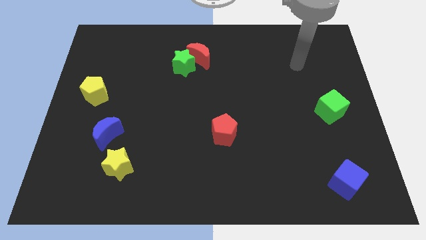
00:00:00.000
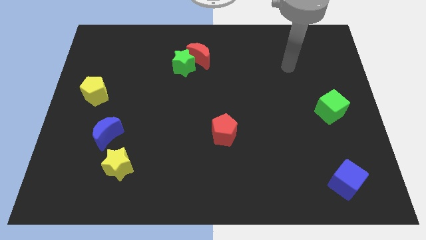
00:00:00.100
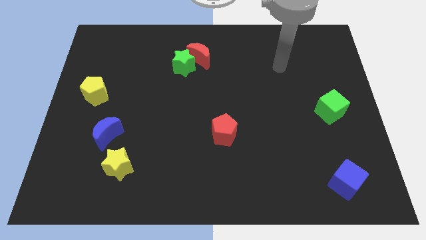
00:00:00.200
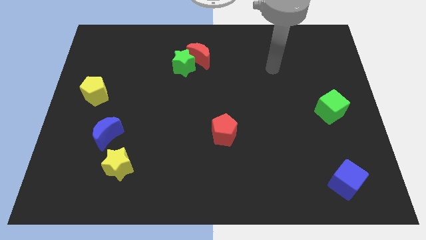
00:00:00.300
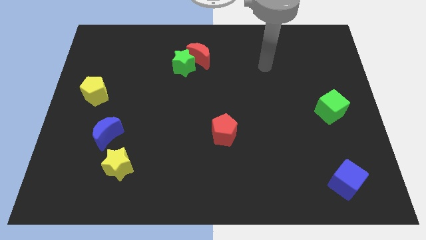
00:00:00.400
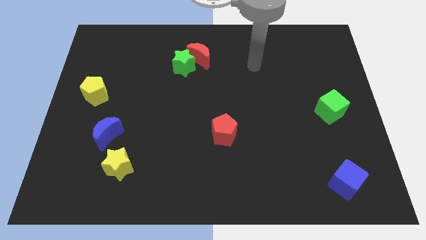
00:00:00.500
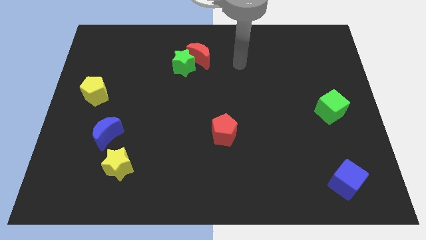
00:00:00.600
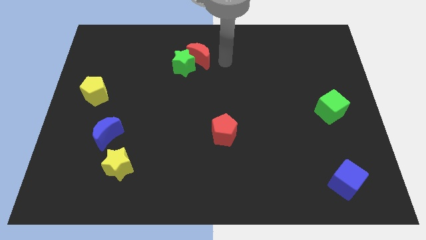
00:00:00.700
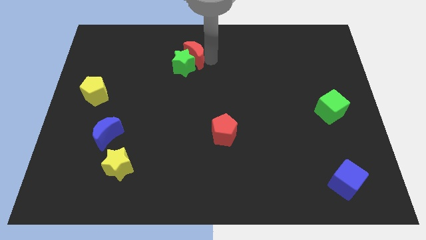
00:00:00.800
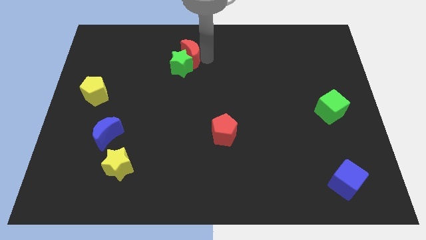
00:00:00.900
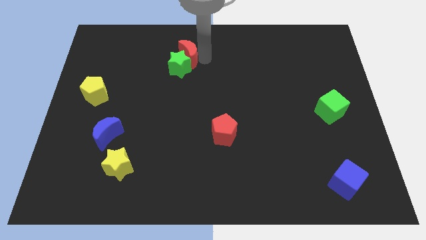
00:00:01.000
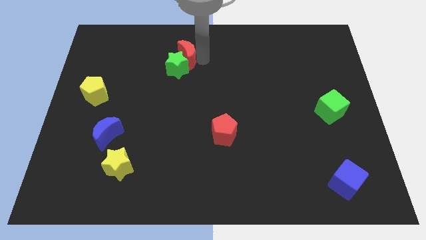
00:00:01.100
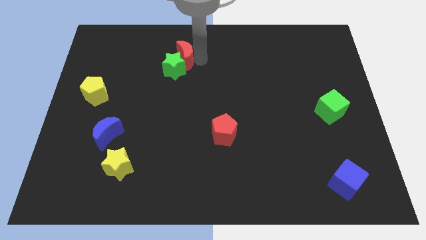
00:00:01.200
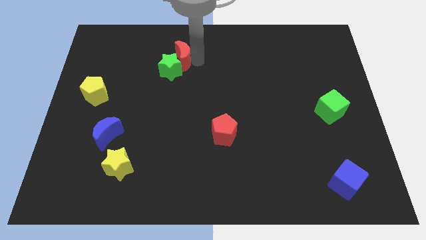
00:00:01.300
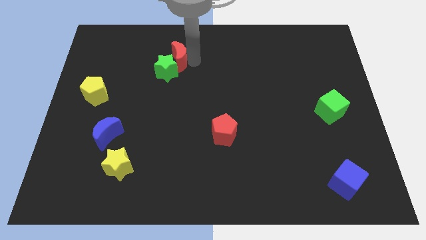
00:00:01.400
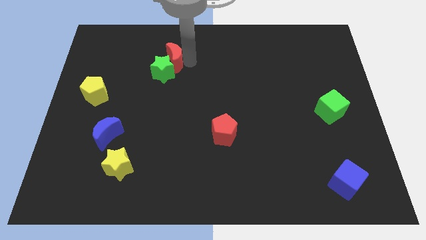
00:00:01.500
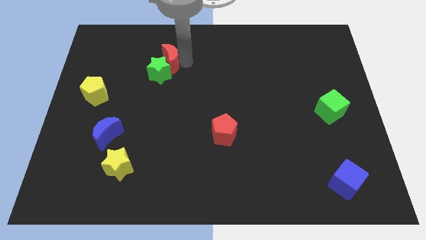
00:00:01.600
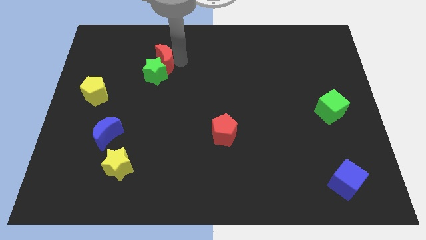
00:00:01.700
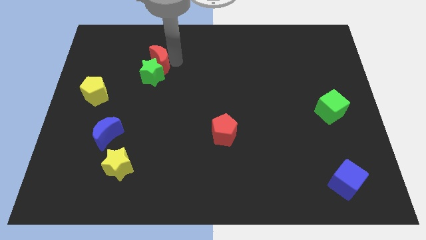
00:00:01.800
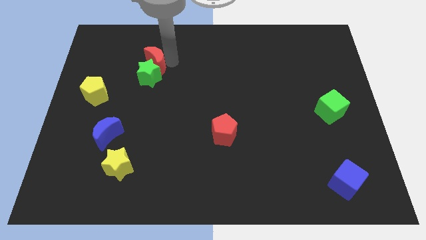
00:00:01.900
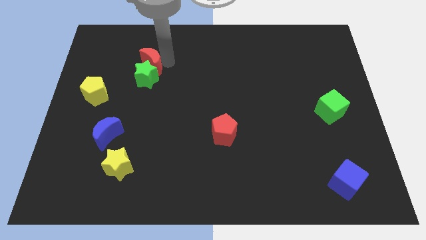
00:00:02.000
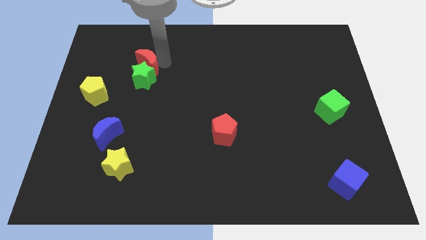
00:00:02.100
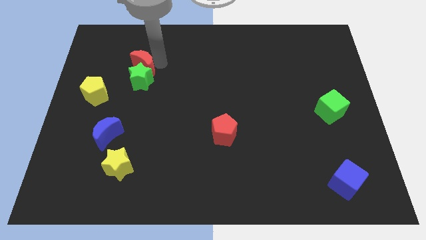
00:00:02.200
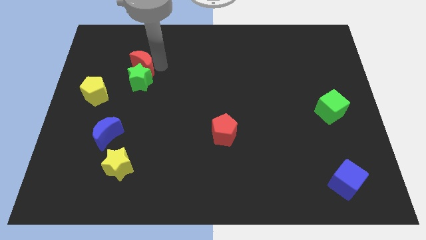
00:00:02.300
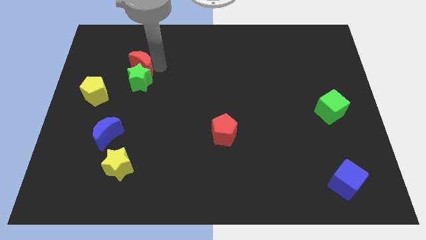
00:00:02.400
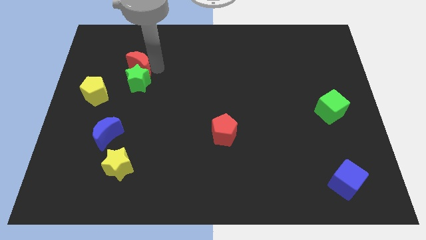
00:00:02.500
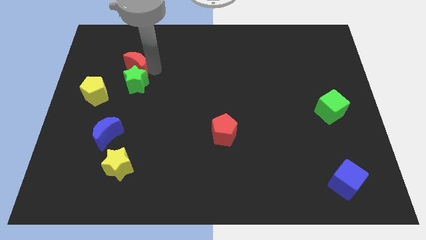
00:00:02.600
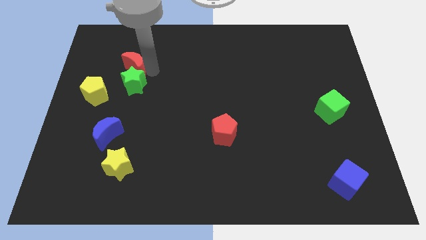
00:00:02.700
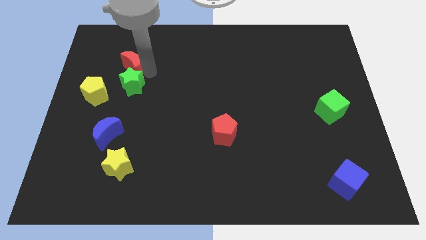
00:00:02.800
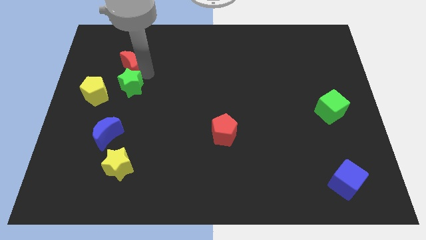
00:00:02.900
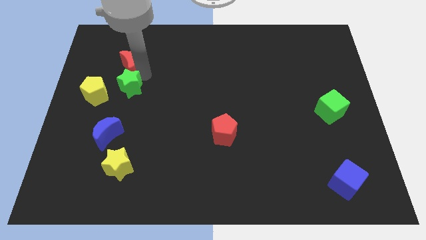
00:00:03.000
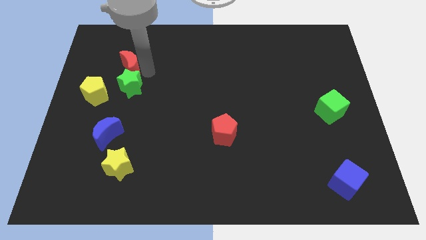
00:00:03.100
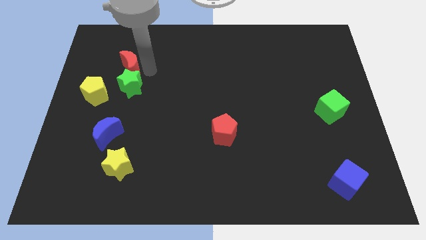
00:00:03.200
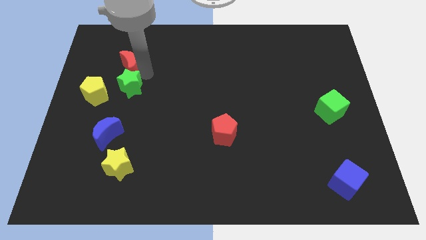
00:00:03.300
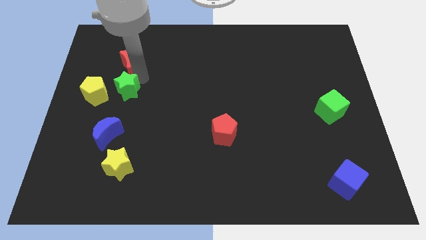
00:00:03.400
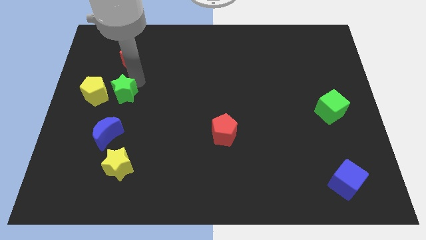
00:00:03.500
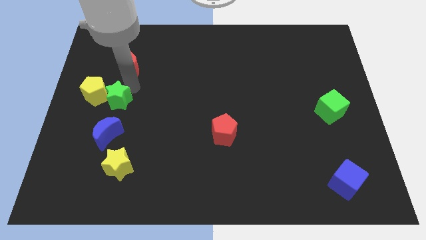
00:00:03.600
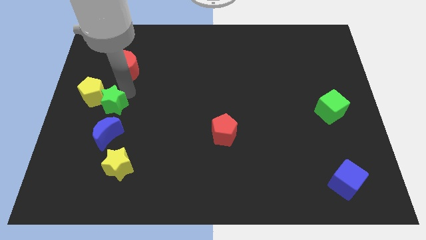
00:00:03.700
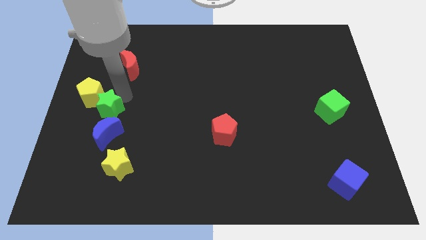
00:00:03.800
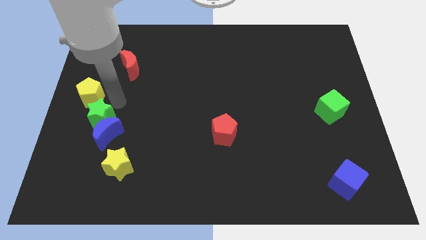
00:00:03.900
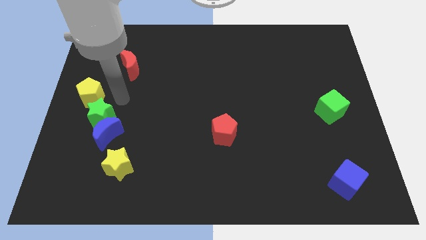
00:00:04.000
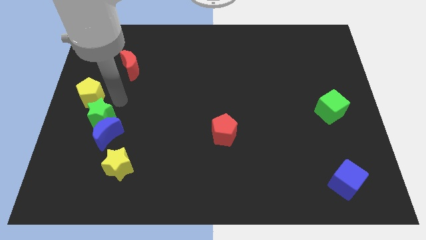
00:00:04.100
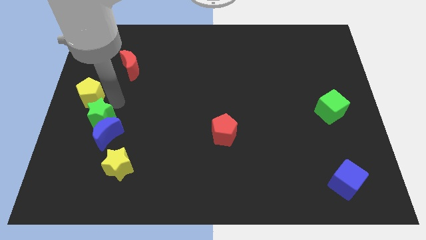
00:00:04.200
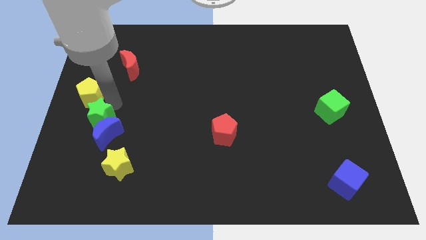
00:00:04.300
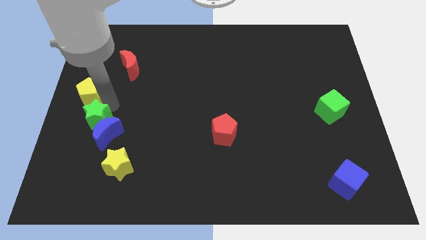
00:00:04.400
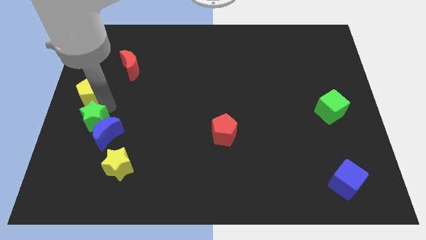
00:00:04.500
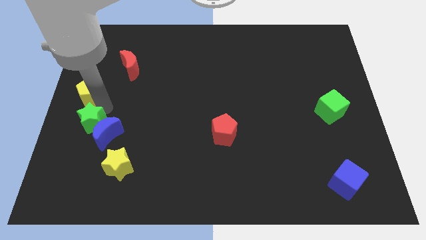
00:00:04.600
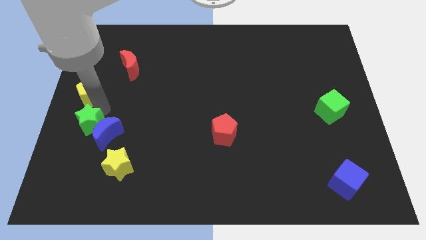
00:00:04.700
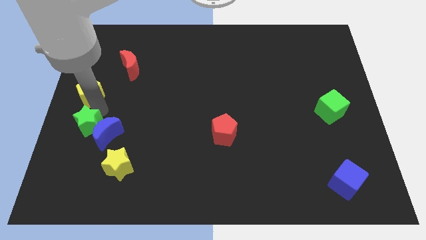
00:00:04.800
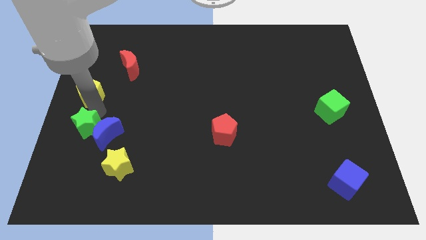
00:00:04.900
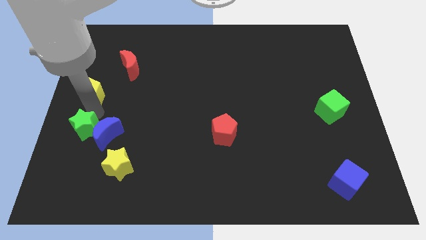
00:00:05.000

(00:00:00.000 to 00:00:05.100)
put the green star diagonally down and to the left of the blue moon

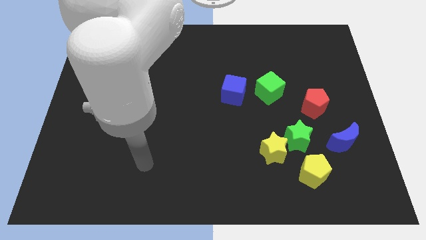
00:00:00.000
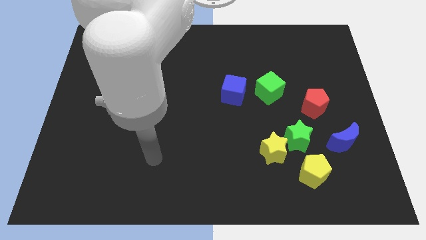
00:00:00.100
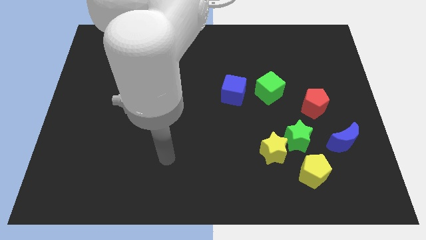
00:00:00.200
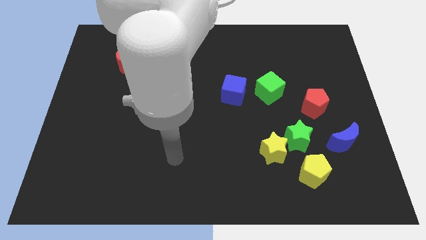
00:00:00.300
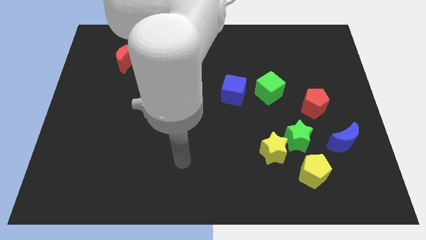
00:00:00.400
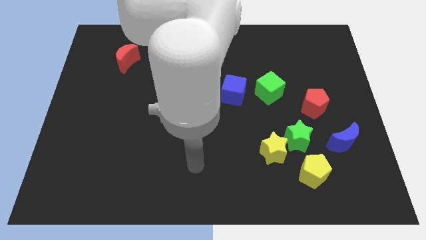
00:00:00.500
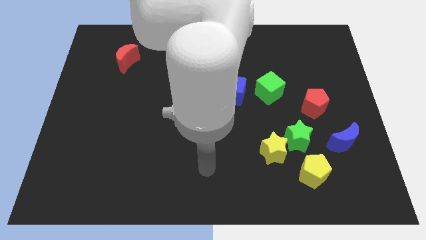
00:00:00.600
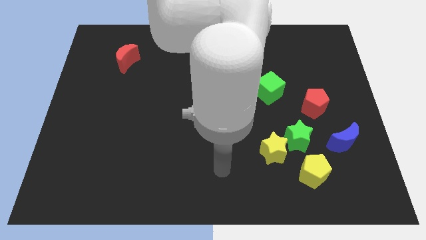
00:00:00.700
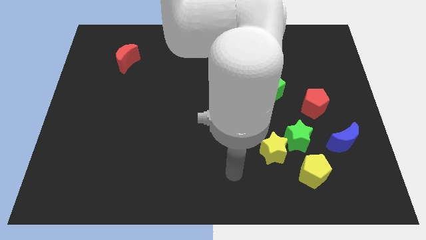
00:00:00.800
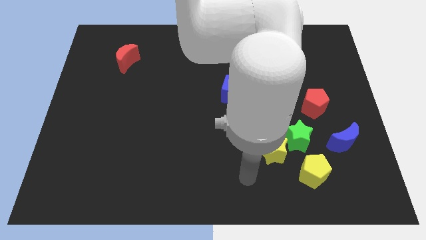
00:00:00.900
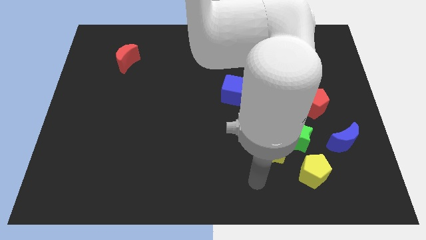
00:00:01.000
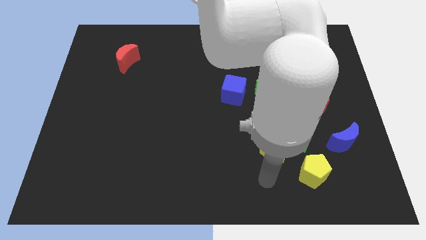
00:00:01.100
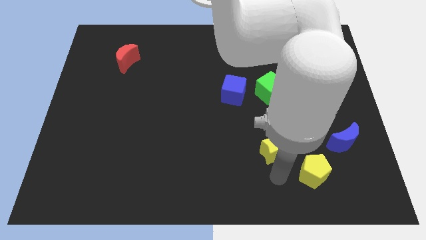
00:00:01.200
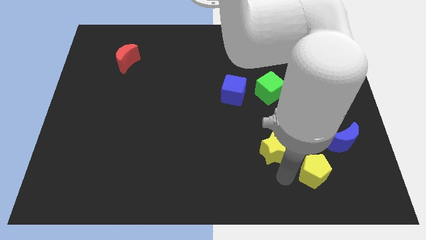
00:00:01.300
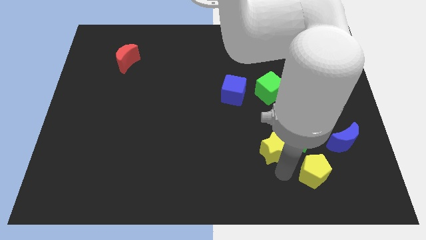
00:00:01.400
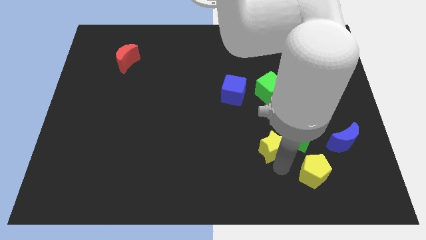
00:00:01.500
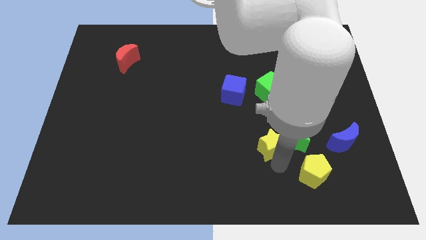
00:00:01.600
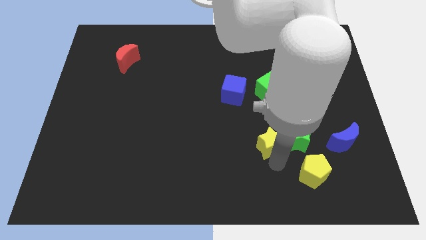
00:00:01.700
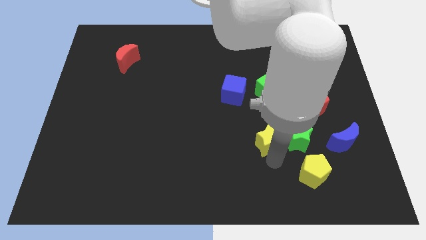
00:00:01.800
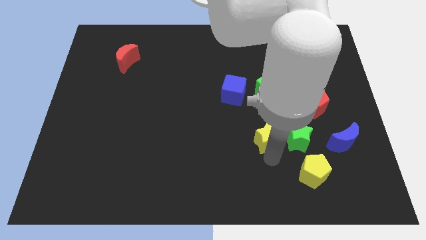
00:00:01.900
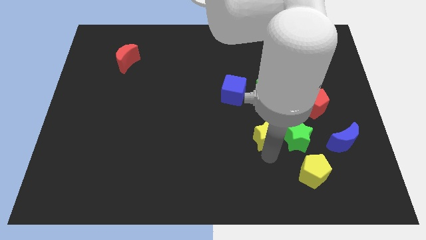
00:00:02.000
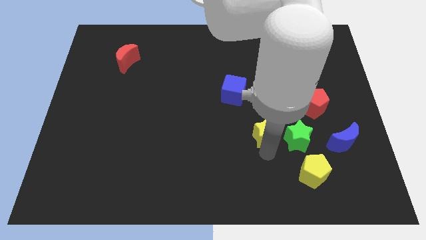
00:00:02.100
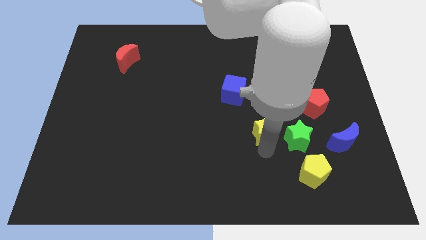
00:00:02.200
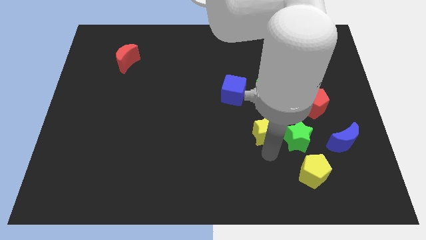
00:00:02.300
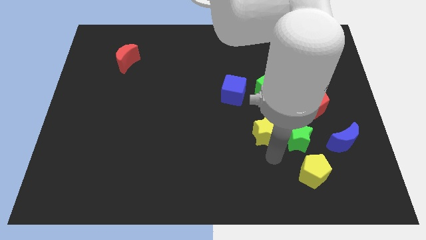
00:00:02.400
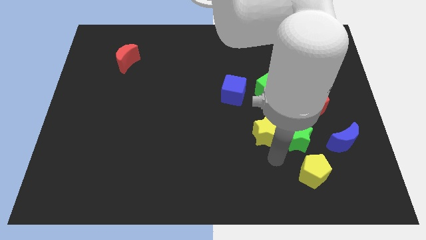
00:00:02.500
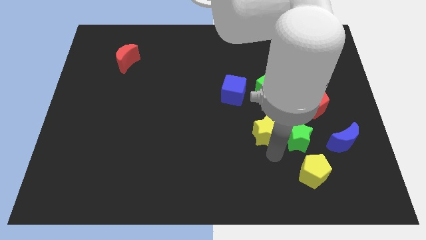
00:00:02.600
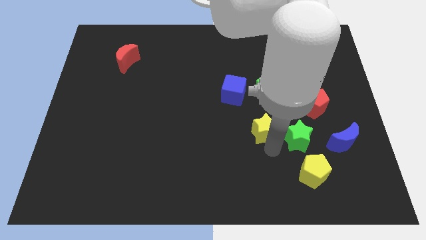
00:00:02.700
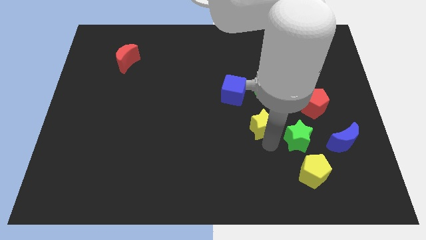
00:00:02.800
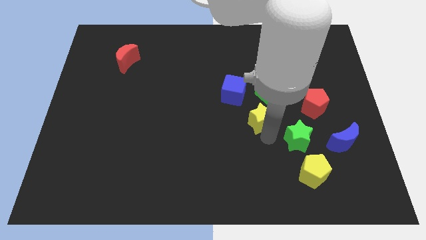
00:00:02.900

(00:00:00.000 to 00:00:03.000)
slide the yellow star to the bottom left side of the green cube
